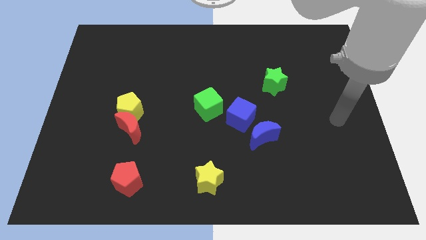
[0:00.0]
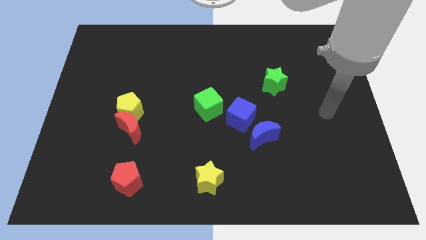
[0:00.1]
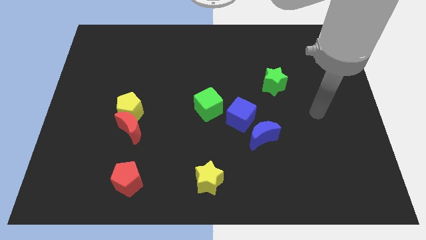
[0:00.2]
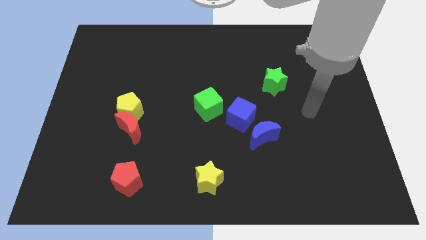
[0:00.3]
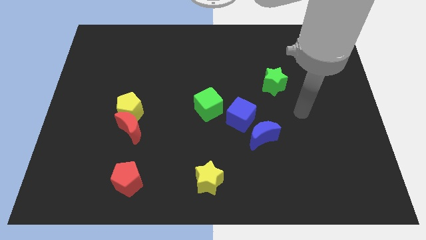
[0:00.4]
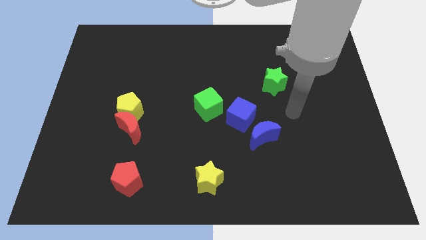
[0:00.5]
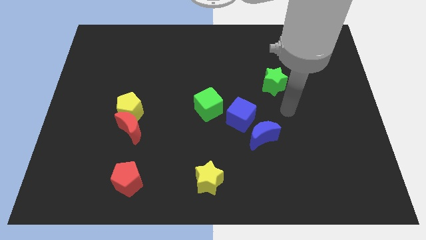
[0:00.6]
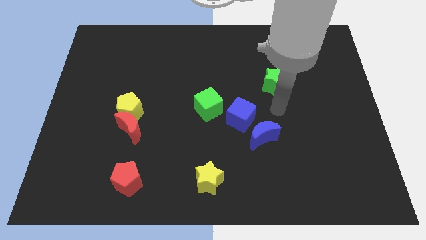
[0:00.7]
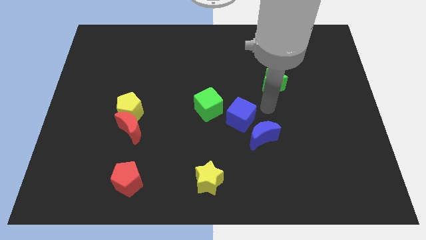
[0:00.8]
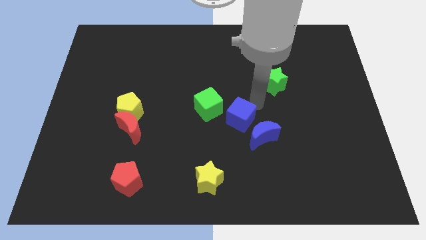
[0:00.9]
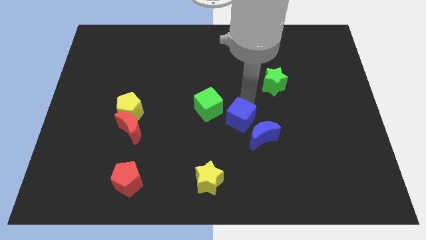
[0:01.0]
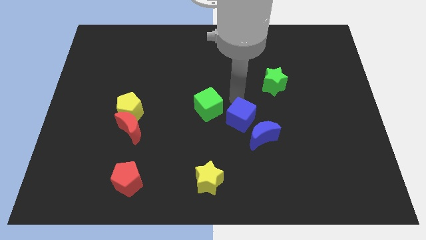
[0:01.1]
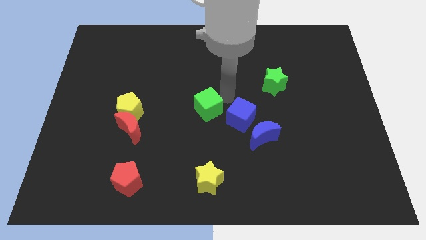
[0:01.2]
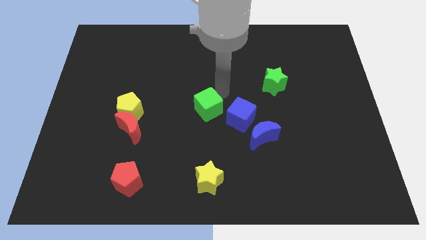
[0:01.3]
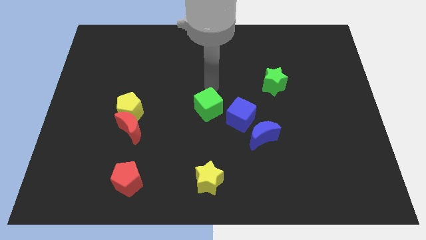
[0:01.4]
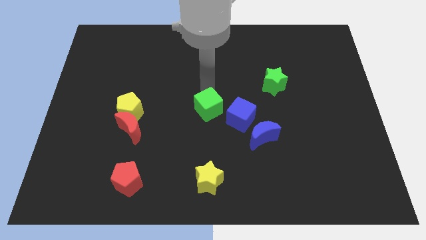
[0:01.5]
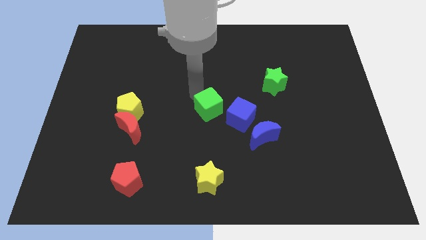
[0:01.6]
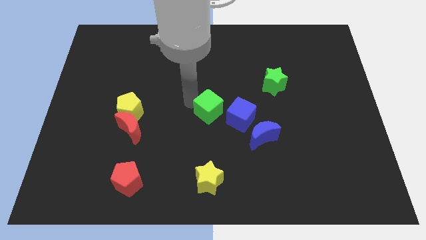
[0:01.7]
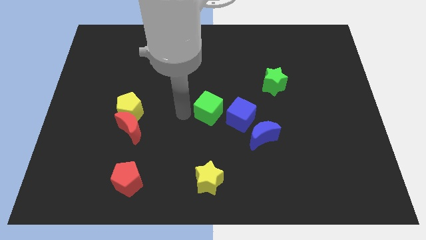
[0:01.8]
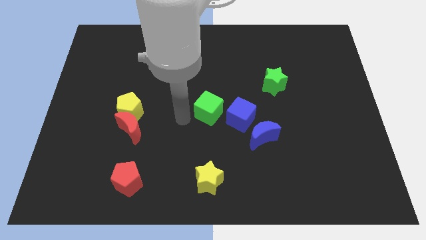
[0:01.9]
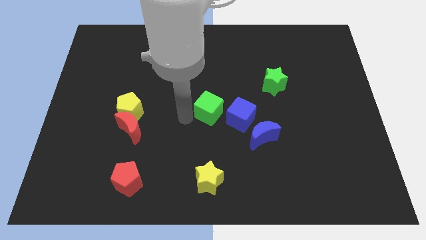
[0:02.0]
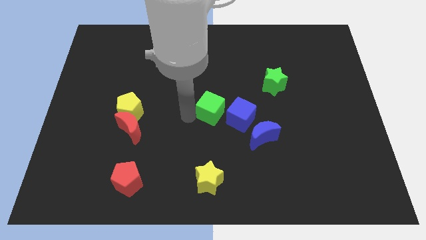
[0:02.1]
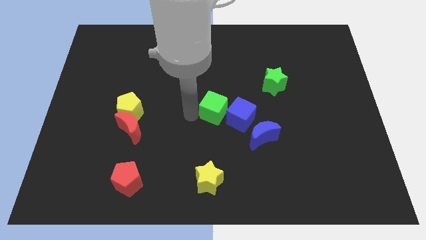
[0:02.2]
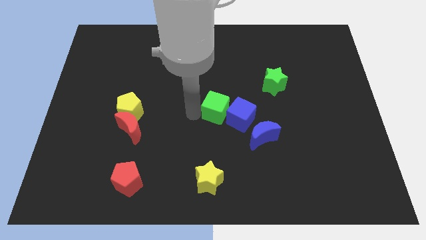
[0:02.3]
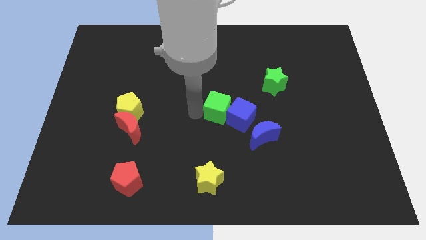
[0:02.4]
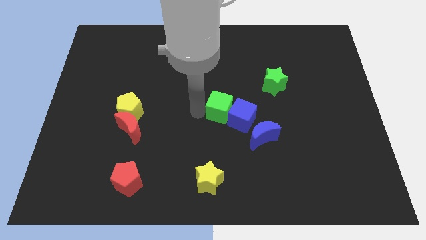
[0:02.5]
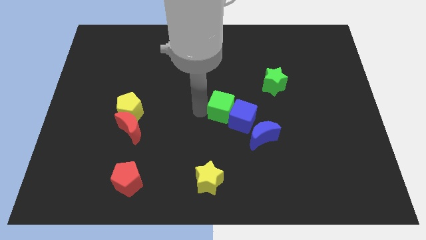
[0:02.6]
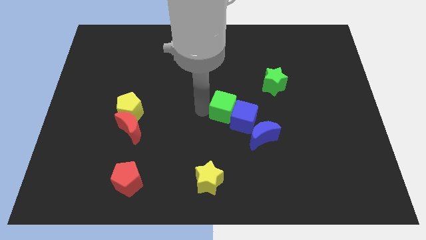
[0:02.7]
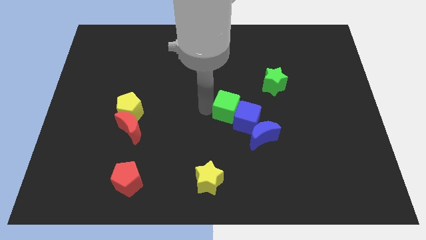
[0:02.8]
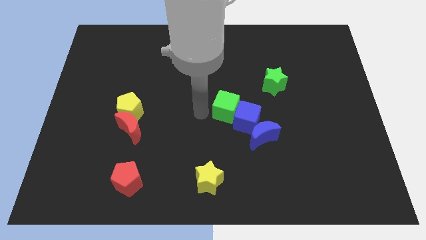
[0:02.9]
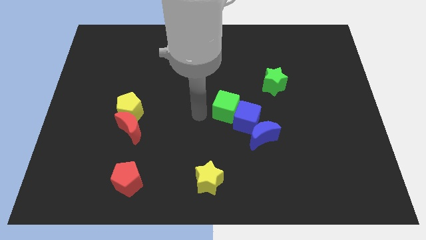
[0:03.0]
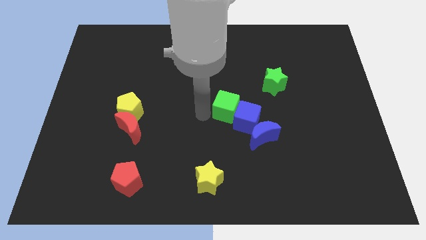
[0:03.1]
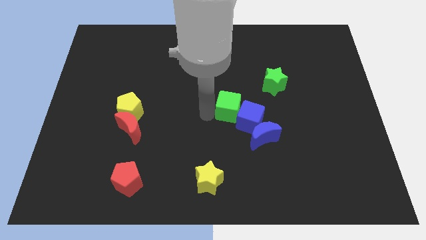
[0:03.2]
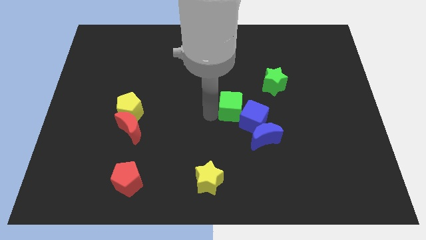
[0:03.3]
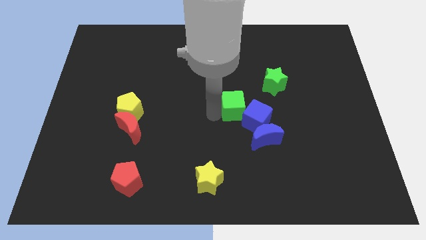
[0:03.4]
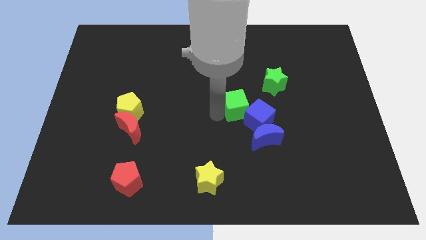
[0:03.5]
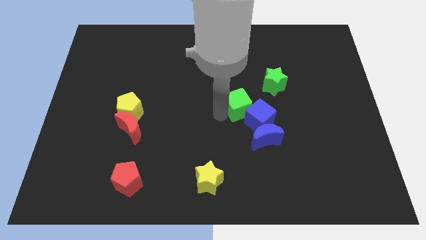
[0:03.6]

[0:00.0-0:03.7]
slightly push the green cube right

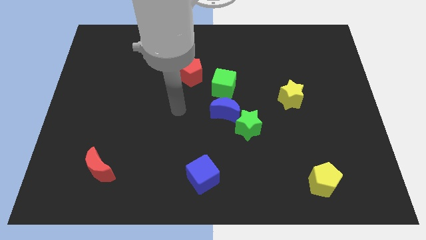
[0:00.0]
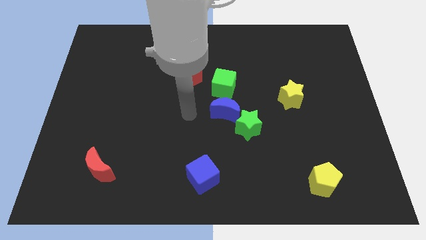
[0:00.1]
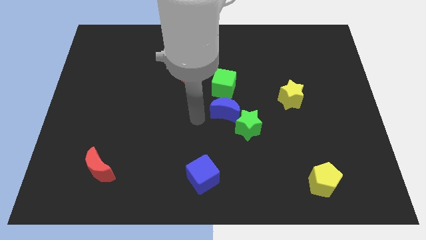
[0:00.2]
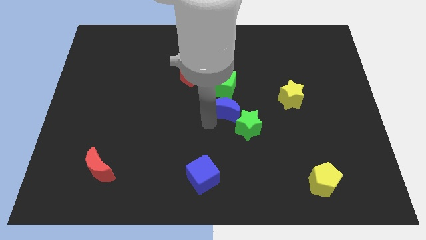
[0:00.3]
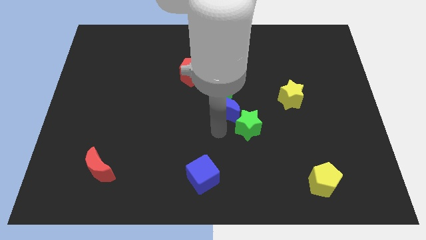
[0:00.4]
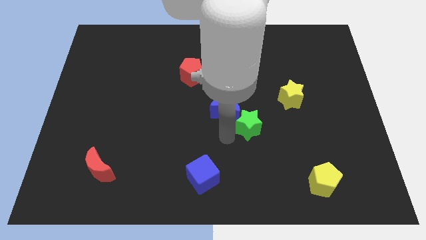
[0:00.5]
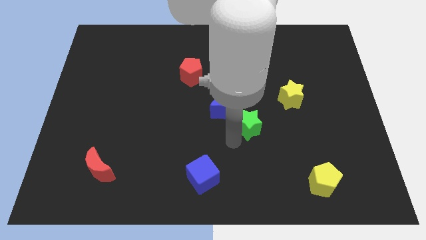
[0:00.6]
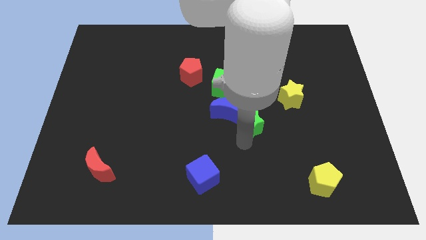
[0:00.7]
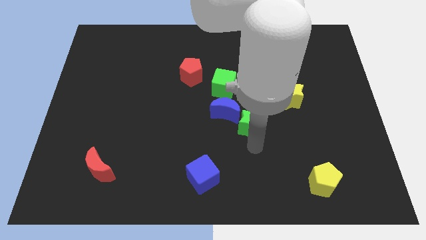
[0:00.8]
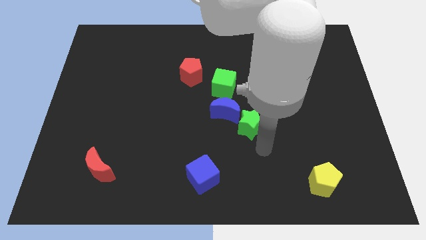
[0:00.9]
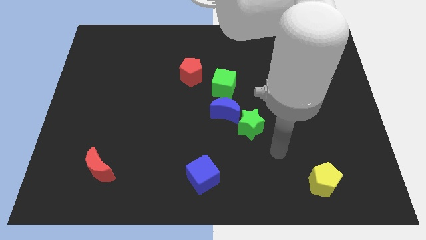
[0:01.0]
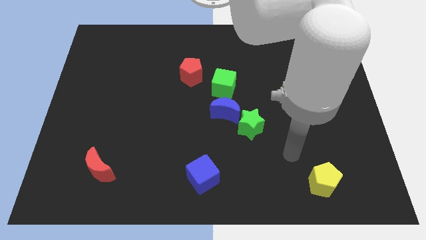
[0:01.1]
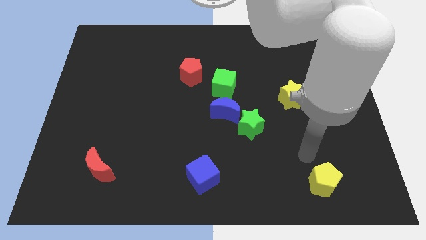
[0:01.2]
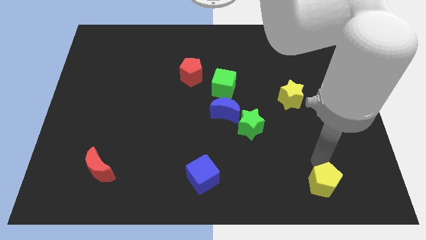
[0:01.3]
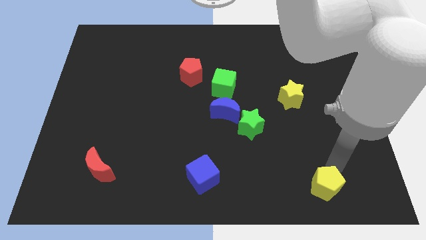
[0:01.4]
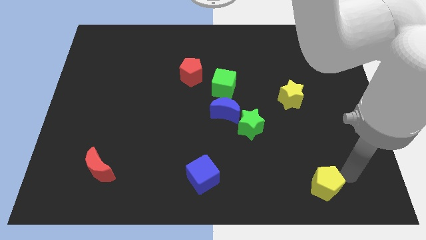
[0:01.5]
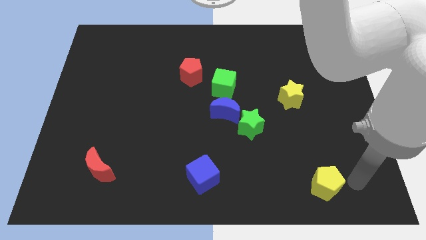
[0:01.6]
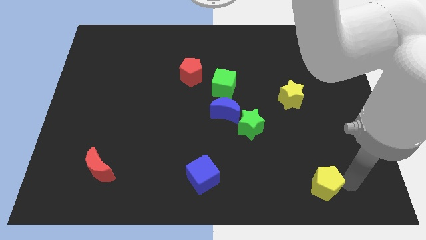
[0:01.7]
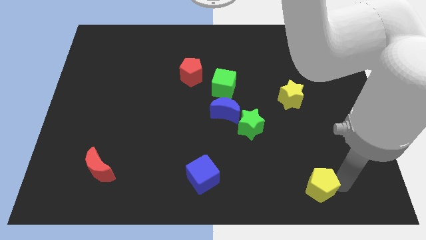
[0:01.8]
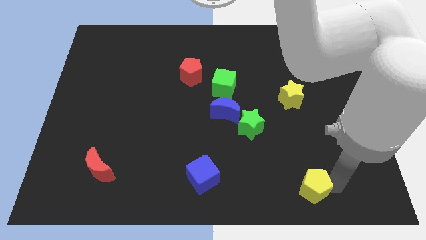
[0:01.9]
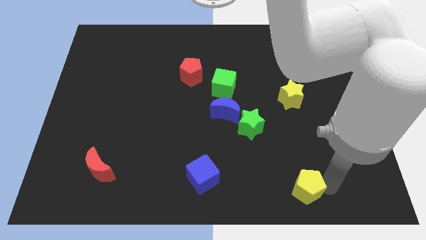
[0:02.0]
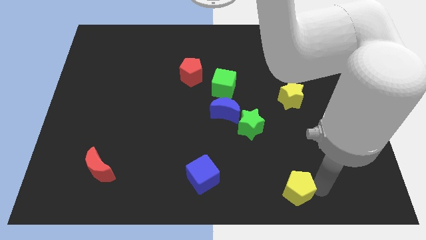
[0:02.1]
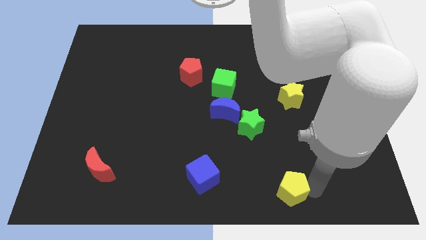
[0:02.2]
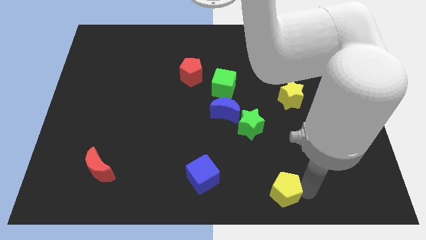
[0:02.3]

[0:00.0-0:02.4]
push the yellow pentagon somewhat to the left

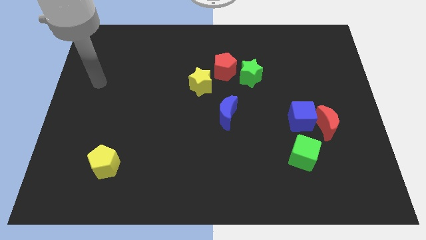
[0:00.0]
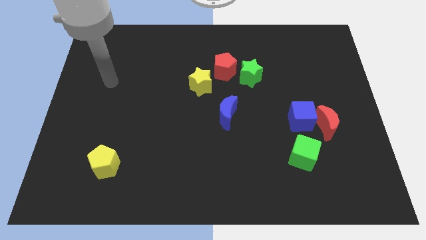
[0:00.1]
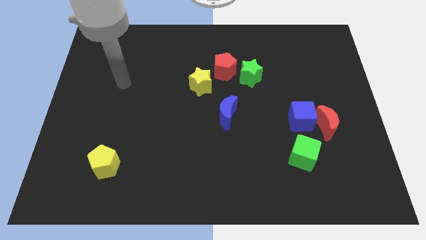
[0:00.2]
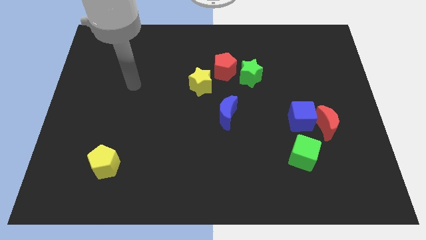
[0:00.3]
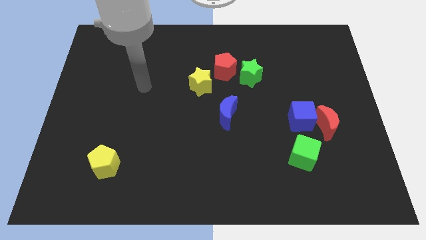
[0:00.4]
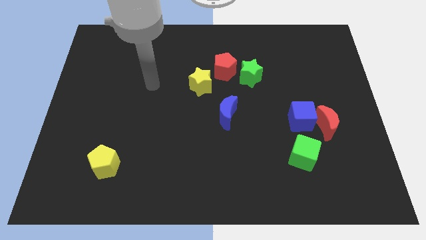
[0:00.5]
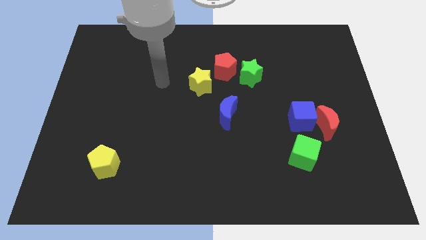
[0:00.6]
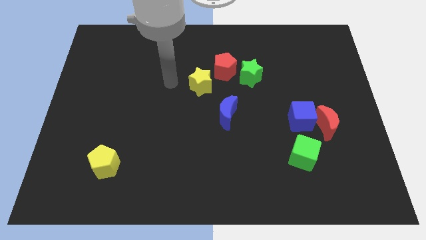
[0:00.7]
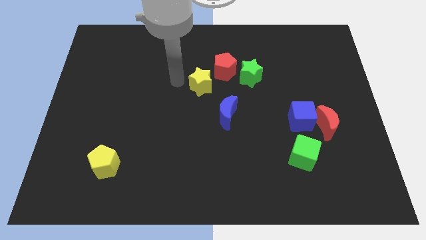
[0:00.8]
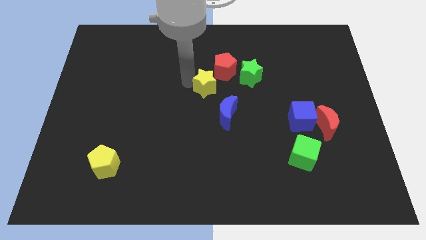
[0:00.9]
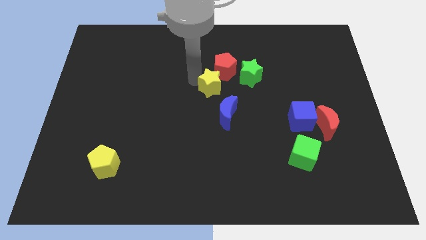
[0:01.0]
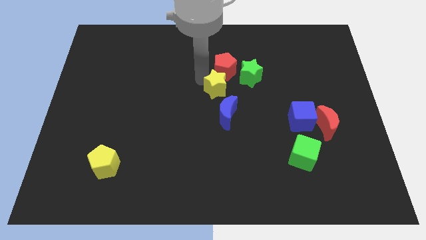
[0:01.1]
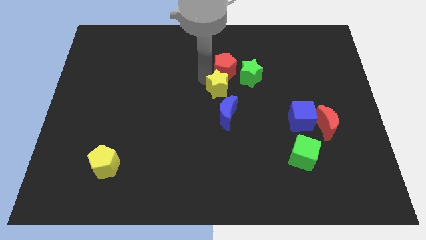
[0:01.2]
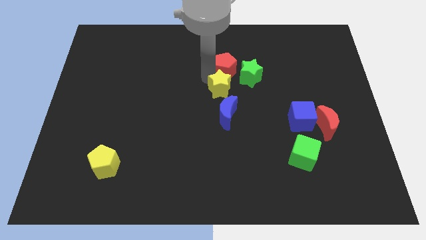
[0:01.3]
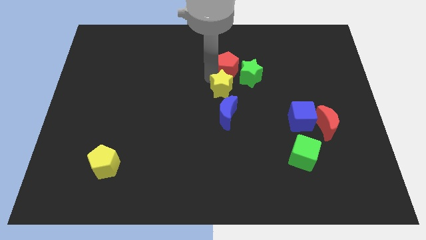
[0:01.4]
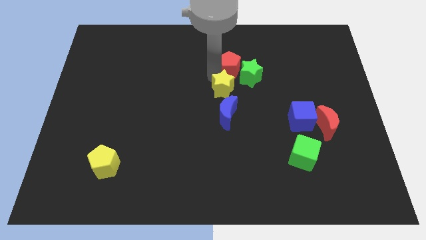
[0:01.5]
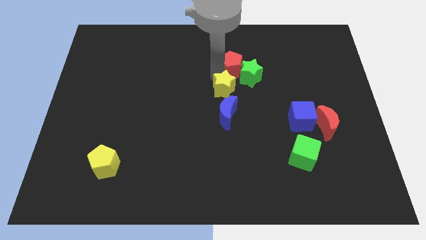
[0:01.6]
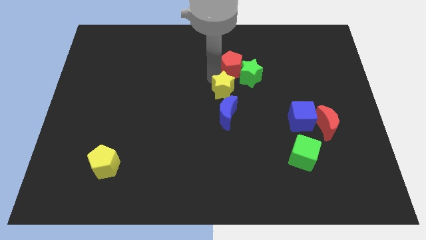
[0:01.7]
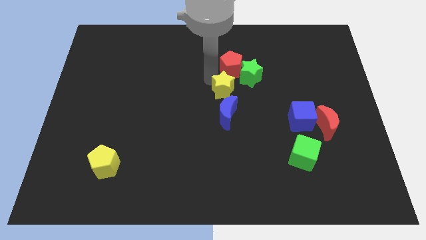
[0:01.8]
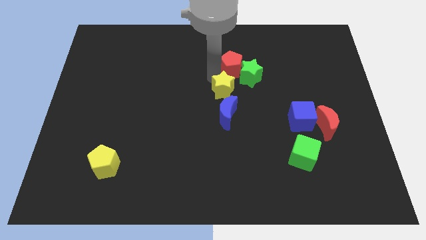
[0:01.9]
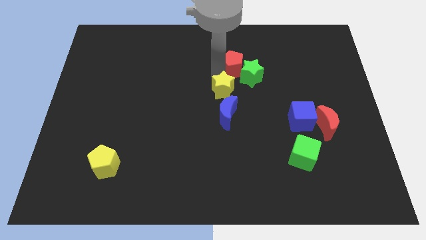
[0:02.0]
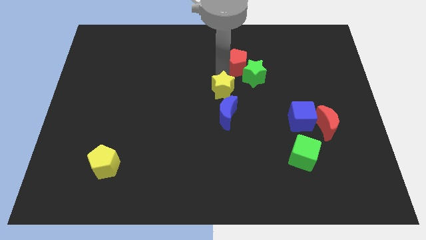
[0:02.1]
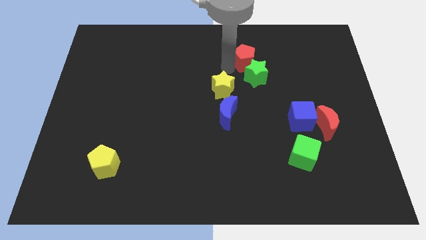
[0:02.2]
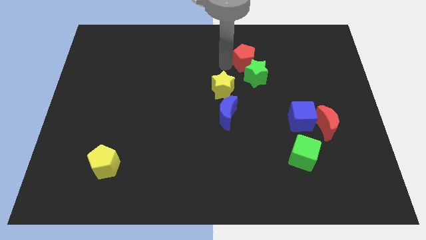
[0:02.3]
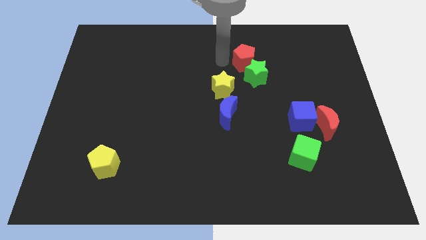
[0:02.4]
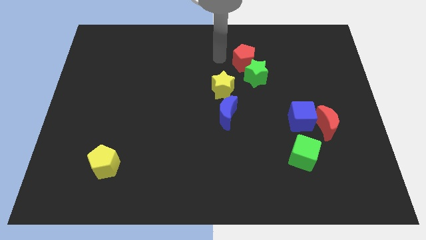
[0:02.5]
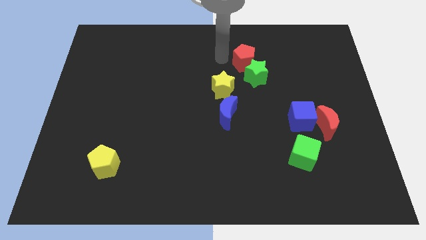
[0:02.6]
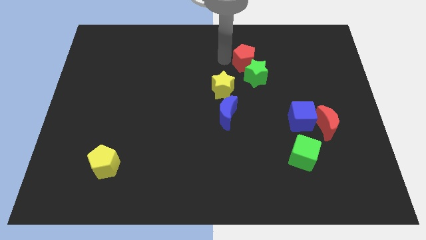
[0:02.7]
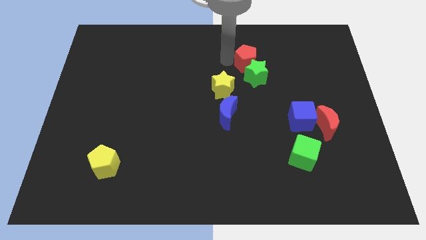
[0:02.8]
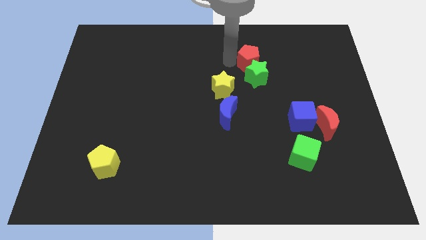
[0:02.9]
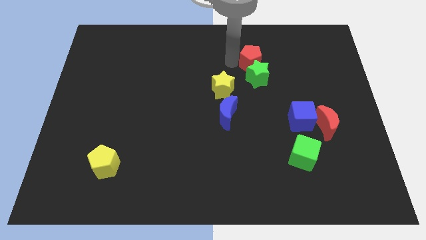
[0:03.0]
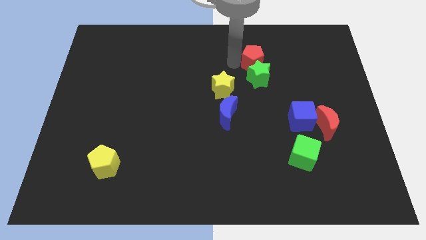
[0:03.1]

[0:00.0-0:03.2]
slightly move the red pentagon to the right
